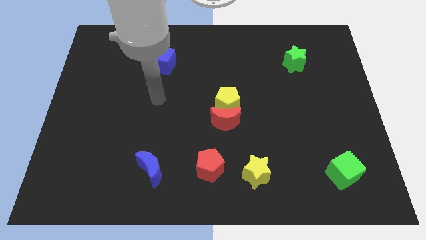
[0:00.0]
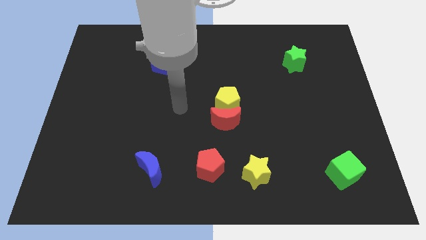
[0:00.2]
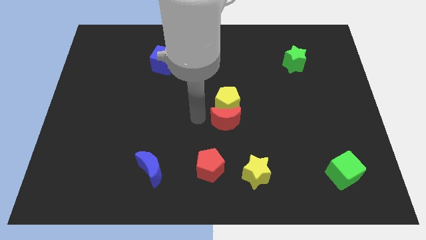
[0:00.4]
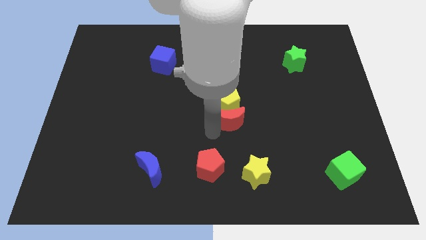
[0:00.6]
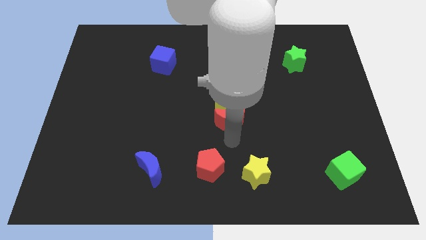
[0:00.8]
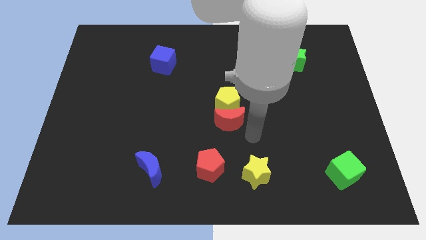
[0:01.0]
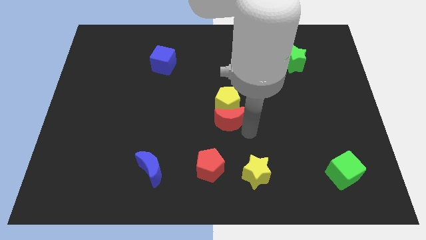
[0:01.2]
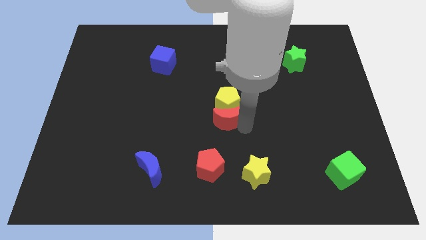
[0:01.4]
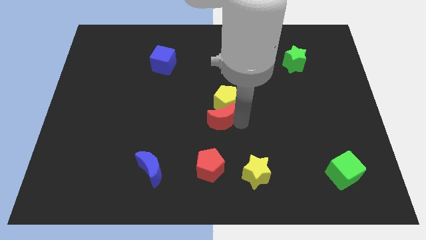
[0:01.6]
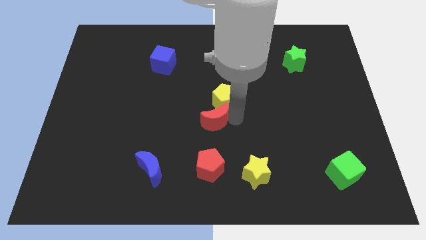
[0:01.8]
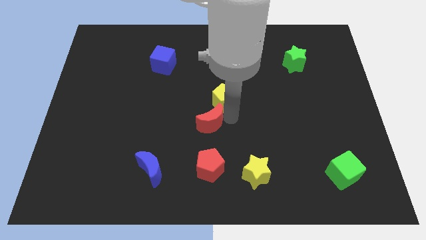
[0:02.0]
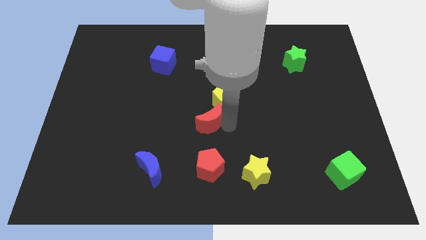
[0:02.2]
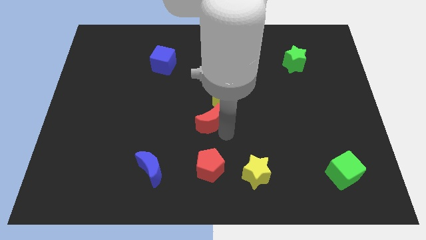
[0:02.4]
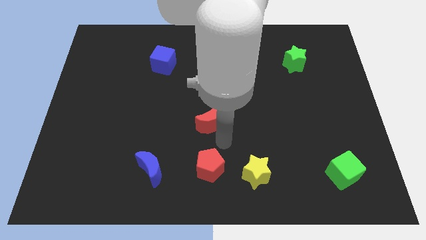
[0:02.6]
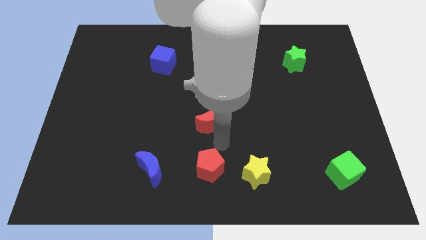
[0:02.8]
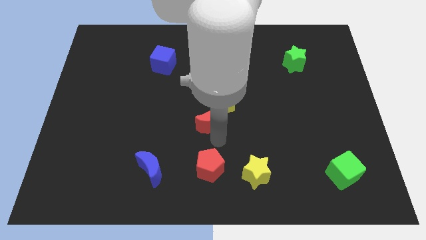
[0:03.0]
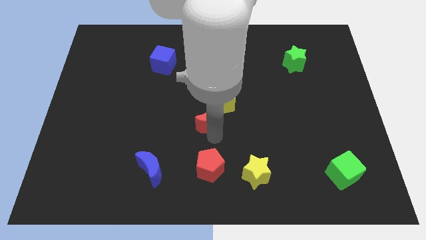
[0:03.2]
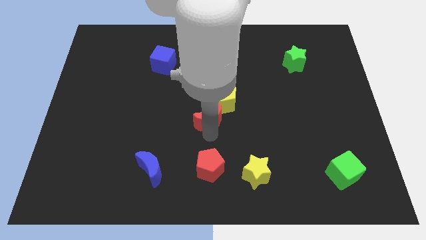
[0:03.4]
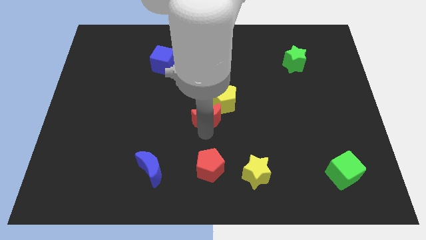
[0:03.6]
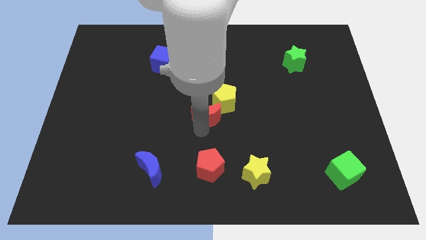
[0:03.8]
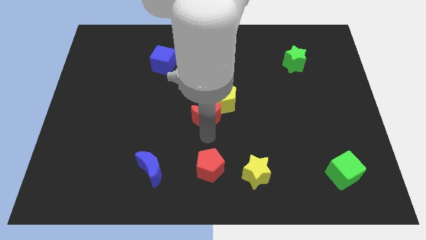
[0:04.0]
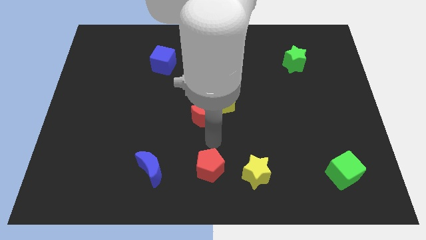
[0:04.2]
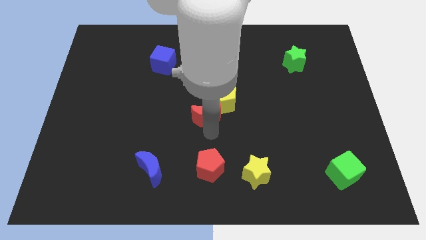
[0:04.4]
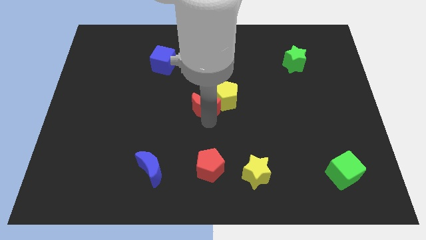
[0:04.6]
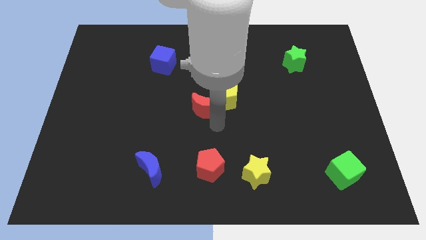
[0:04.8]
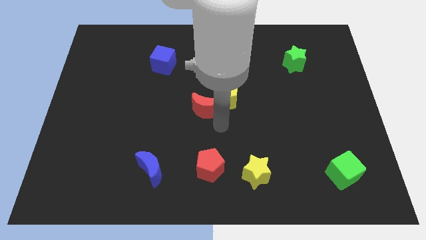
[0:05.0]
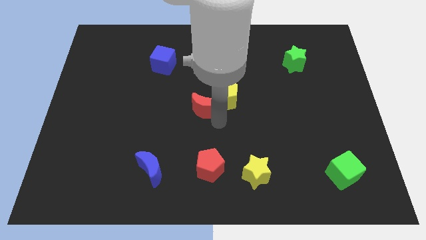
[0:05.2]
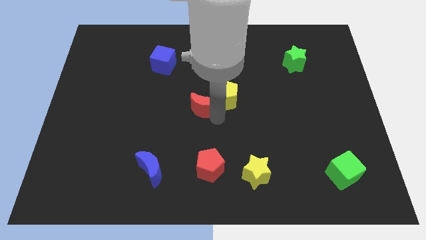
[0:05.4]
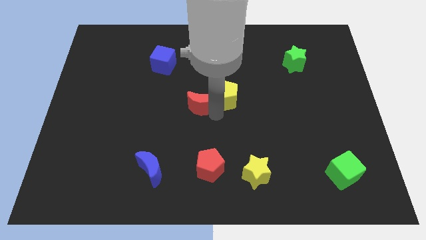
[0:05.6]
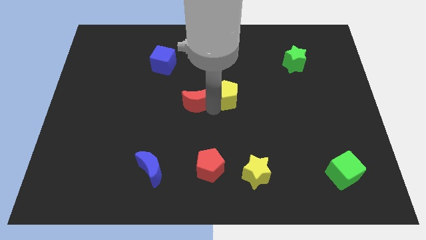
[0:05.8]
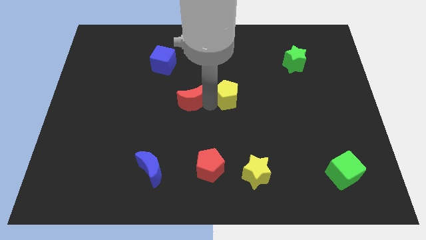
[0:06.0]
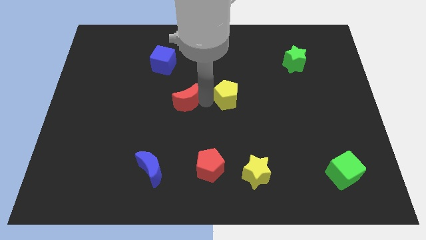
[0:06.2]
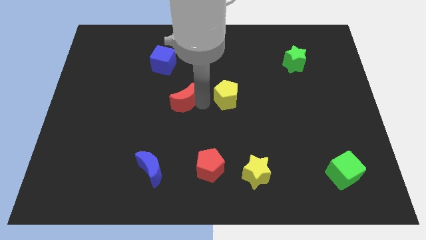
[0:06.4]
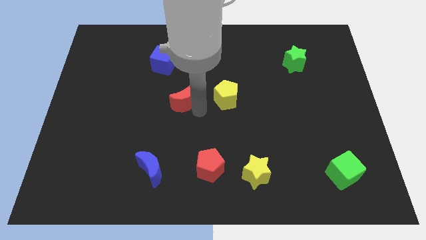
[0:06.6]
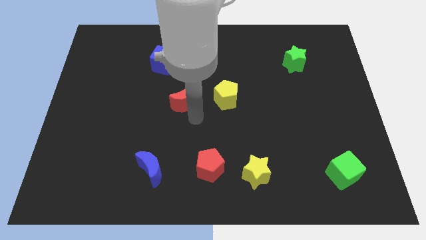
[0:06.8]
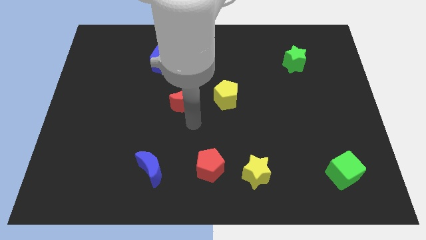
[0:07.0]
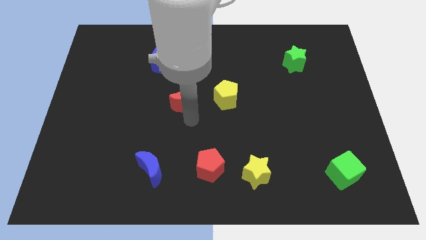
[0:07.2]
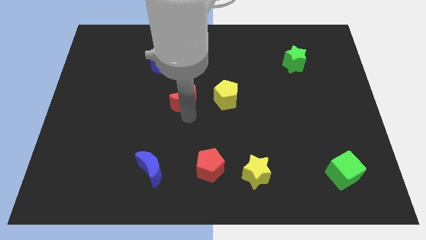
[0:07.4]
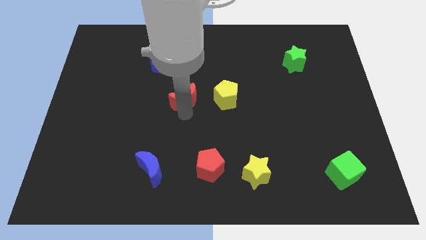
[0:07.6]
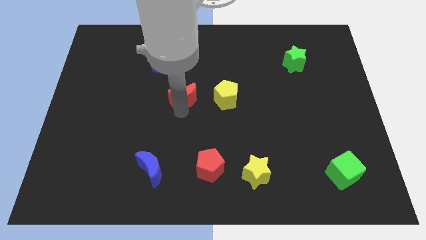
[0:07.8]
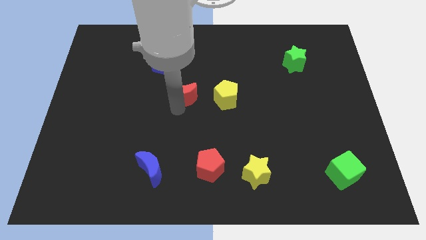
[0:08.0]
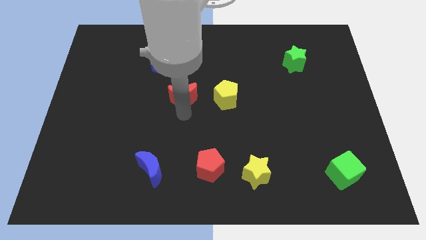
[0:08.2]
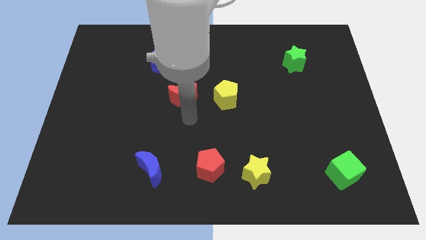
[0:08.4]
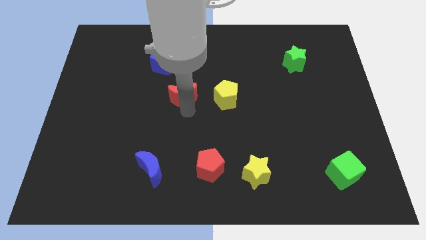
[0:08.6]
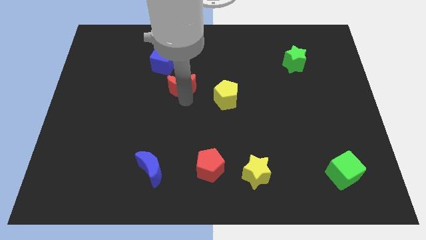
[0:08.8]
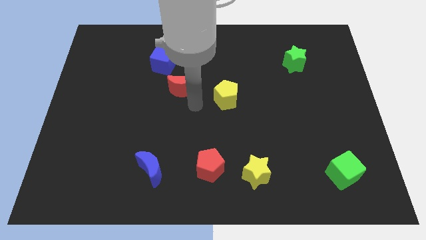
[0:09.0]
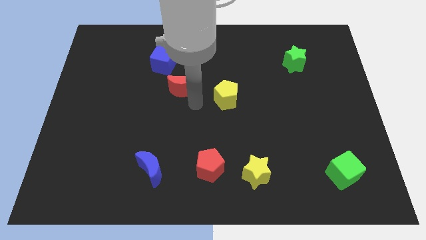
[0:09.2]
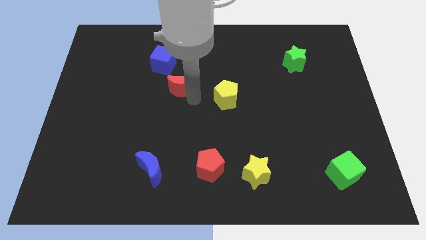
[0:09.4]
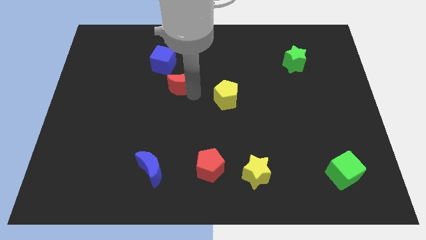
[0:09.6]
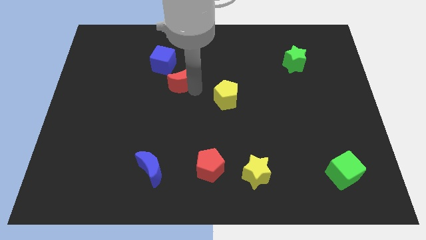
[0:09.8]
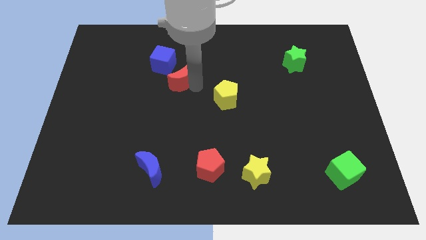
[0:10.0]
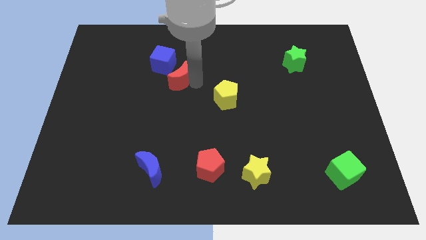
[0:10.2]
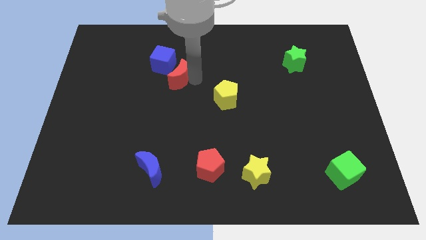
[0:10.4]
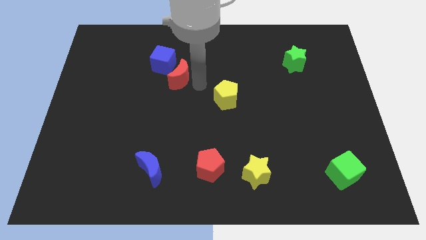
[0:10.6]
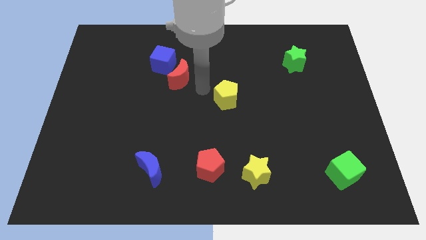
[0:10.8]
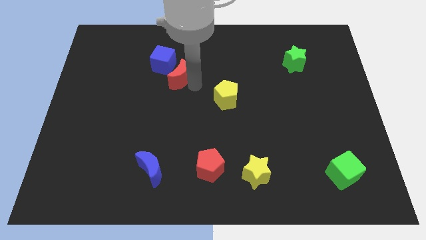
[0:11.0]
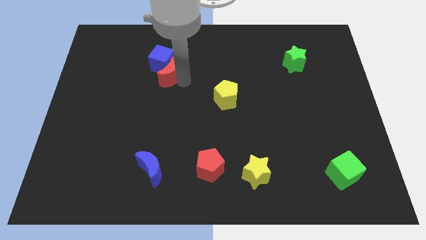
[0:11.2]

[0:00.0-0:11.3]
push the red moon close to the blue cube

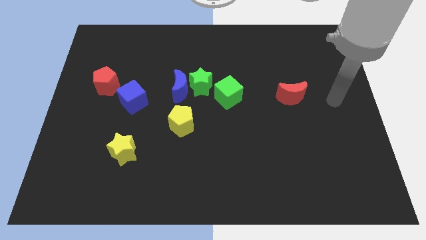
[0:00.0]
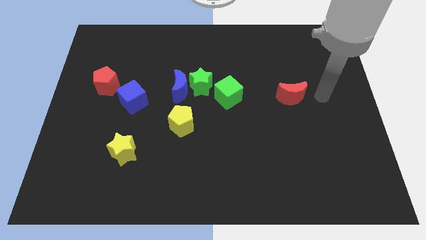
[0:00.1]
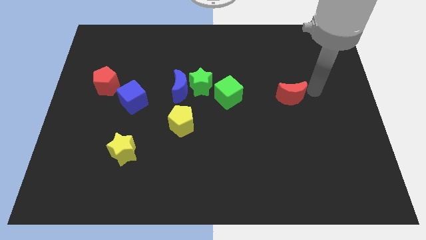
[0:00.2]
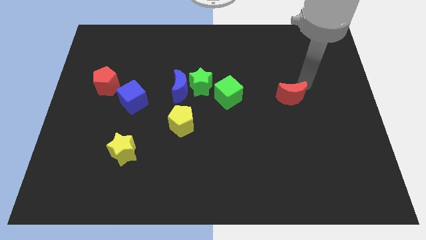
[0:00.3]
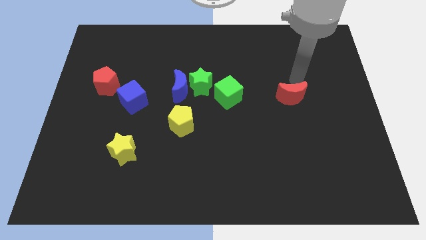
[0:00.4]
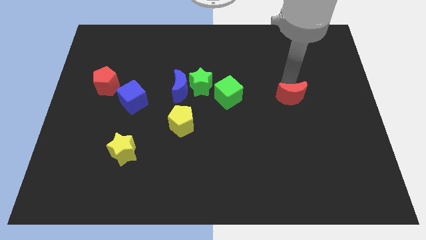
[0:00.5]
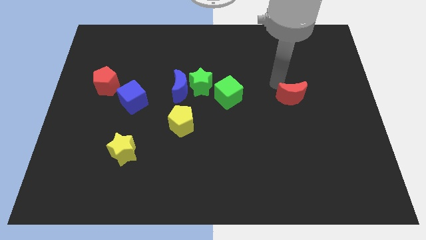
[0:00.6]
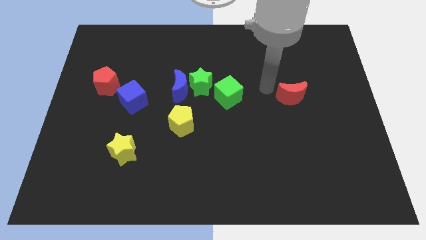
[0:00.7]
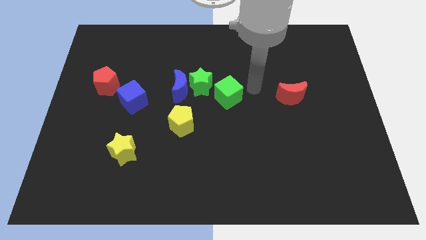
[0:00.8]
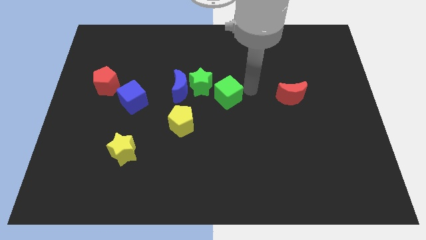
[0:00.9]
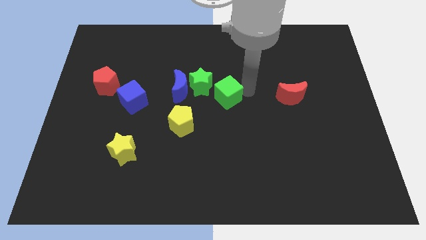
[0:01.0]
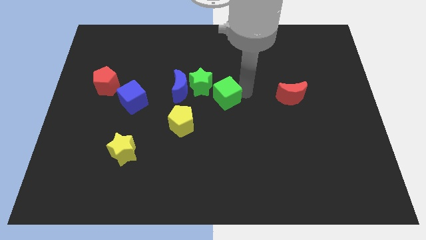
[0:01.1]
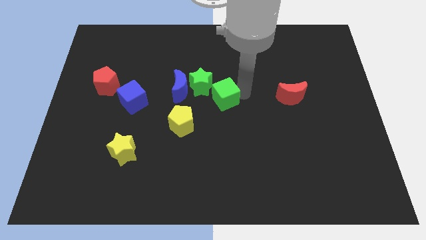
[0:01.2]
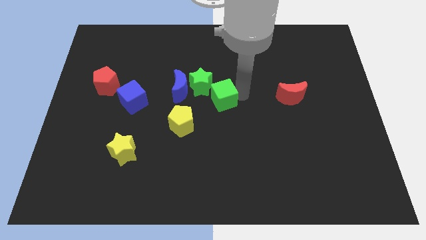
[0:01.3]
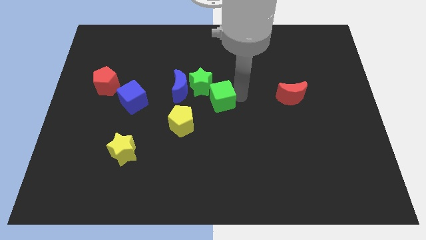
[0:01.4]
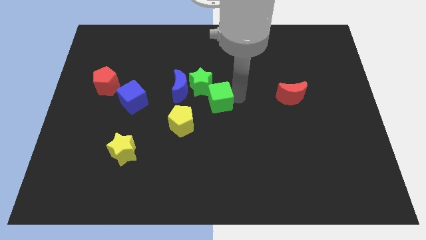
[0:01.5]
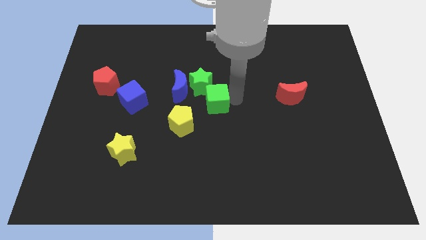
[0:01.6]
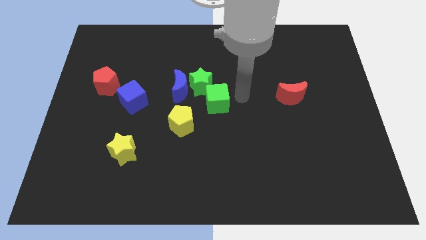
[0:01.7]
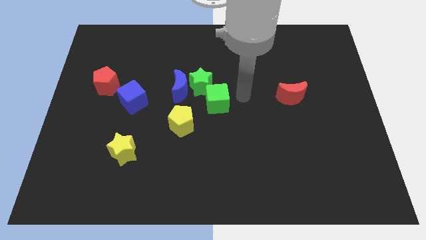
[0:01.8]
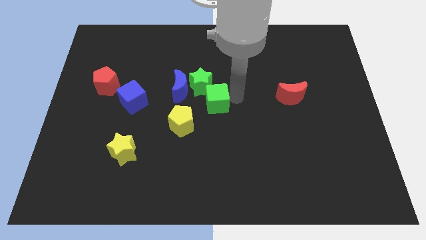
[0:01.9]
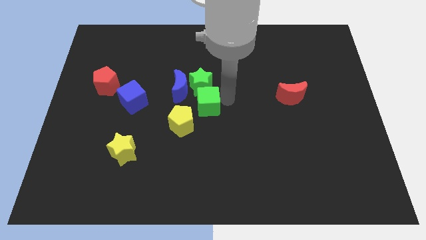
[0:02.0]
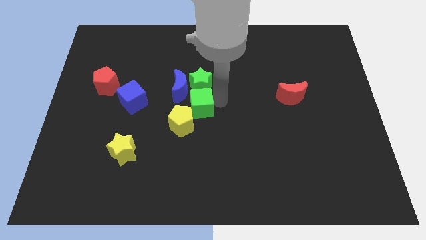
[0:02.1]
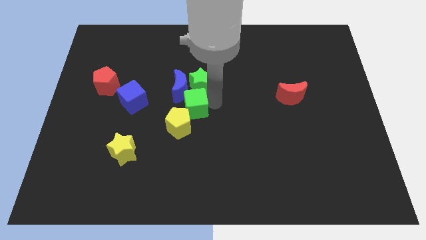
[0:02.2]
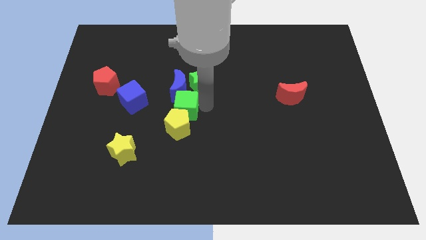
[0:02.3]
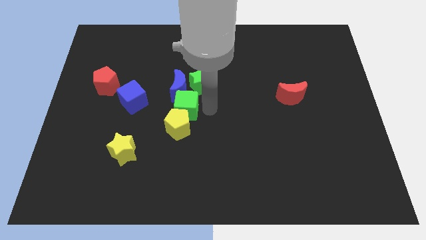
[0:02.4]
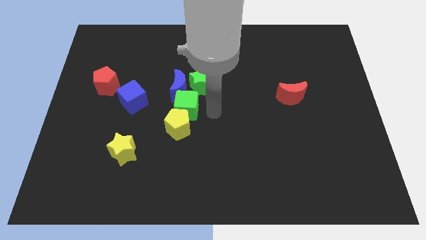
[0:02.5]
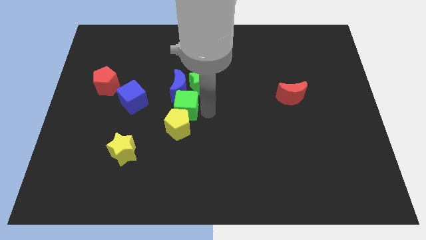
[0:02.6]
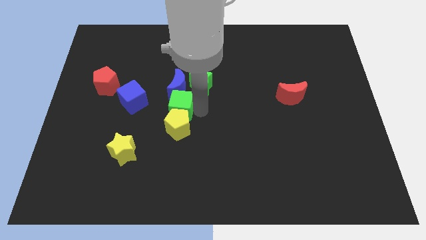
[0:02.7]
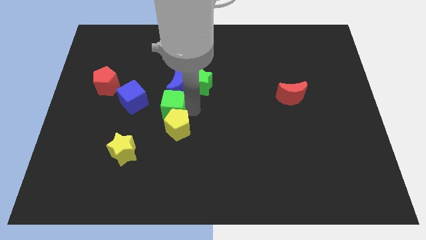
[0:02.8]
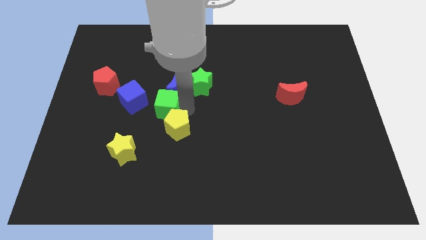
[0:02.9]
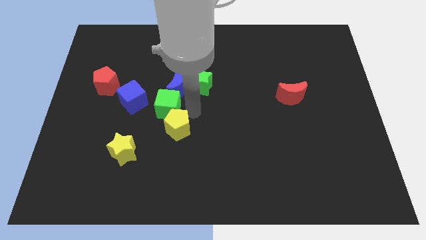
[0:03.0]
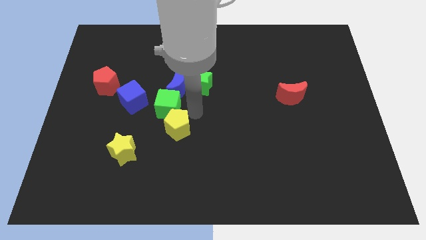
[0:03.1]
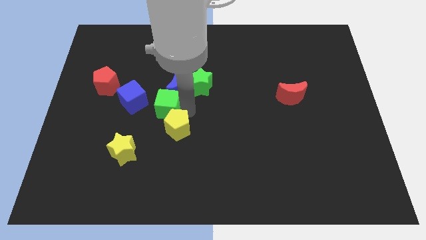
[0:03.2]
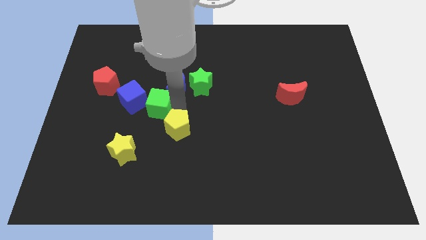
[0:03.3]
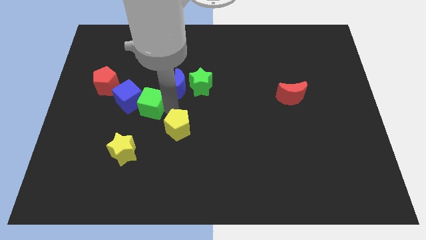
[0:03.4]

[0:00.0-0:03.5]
push the green cube to the blue cube
